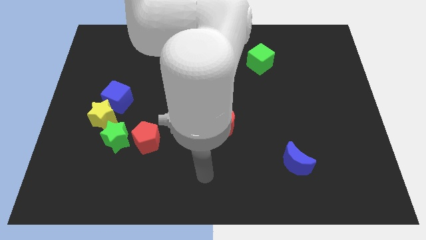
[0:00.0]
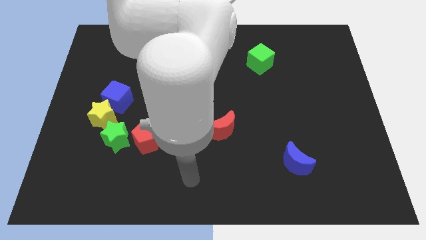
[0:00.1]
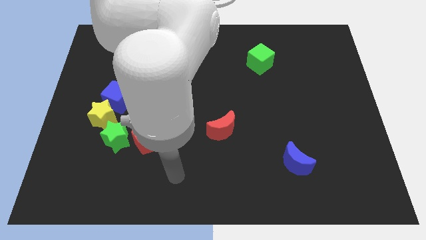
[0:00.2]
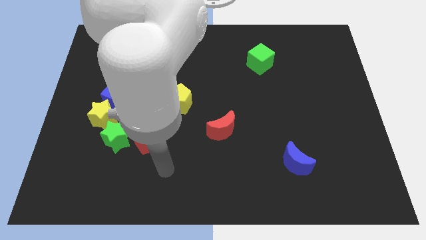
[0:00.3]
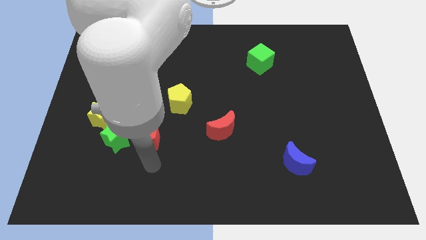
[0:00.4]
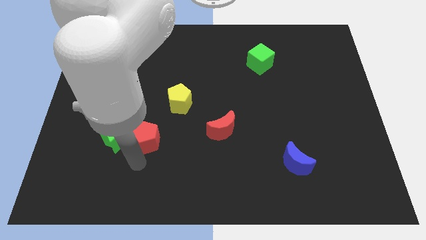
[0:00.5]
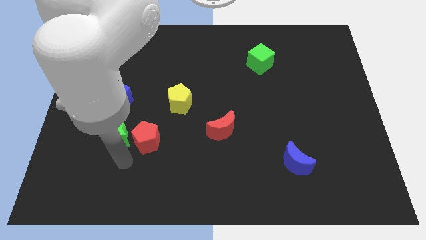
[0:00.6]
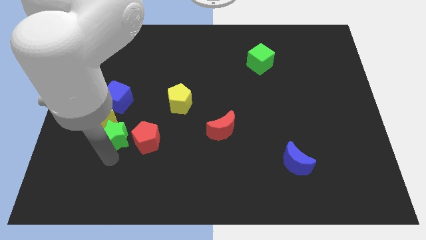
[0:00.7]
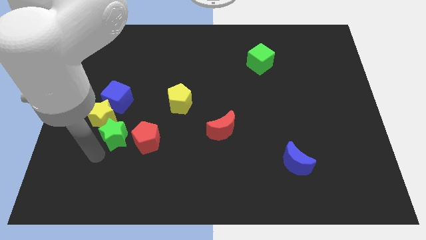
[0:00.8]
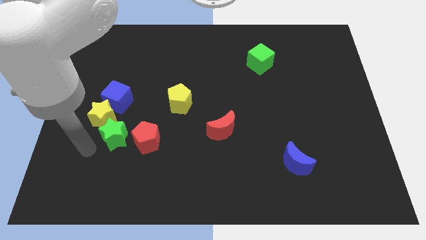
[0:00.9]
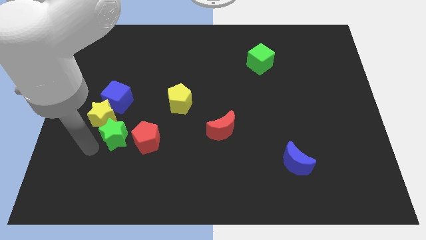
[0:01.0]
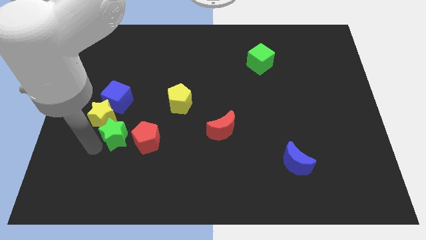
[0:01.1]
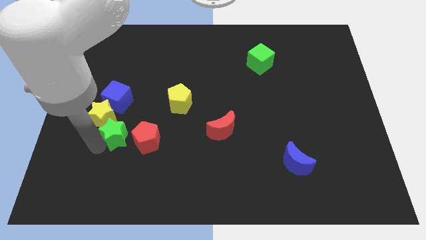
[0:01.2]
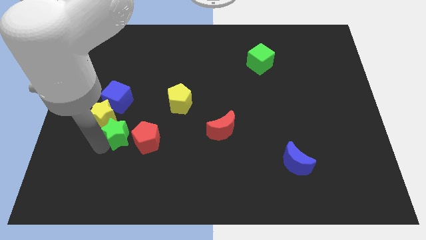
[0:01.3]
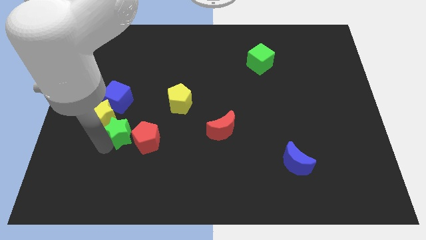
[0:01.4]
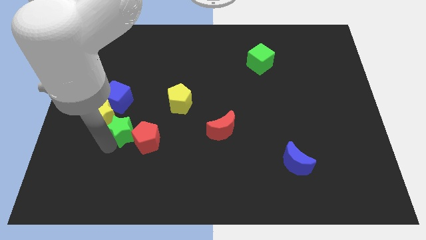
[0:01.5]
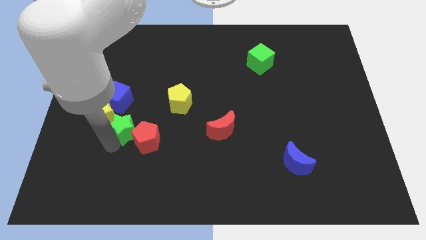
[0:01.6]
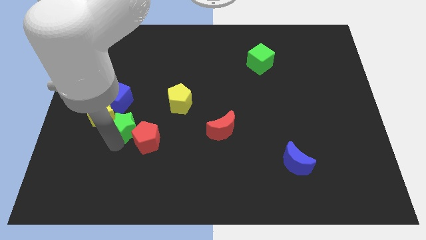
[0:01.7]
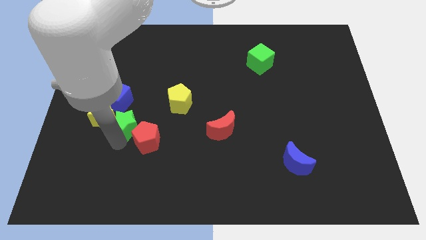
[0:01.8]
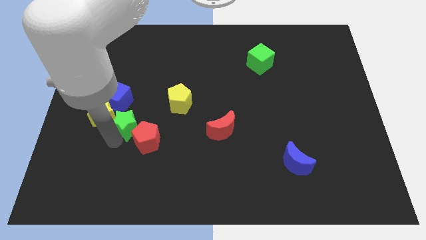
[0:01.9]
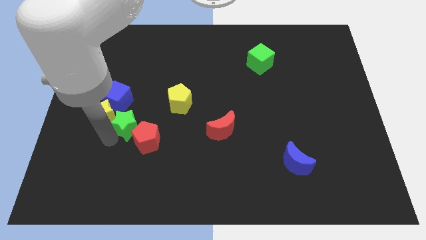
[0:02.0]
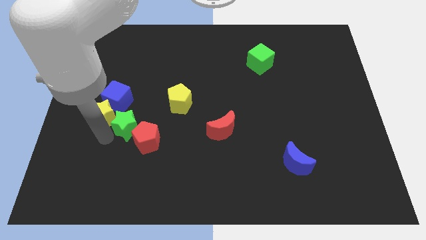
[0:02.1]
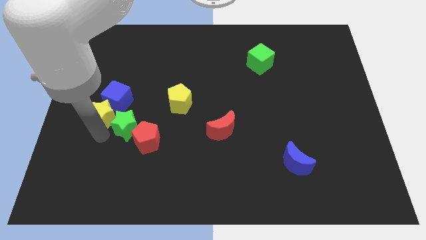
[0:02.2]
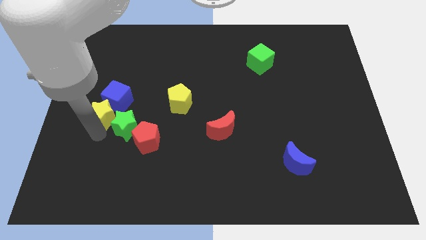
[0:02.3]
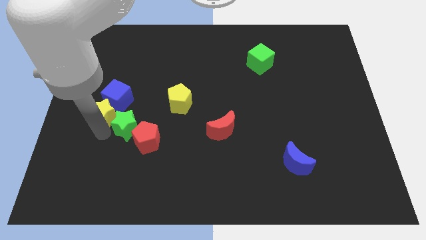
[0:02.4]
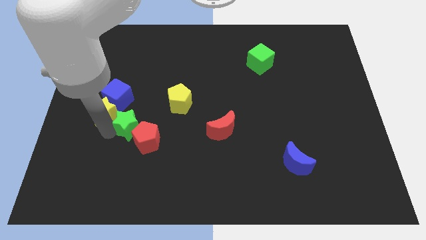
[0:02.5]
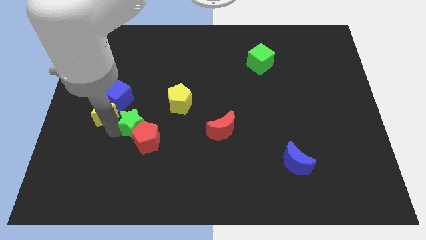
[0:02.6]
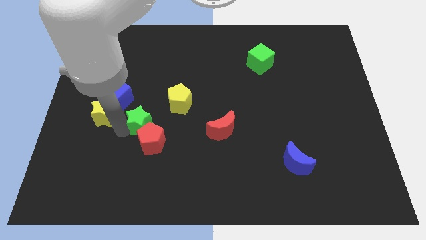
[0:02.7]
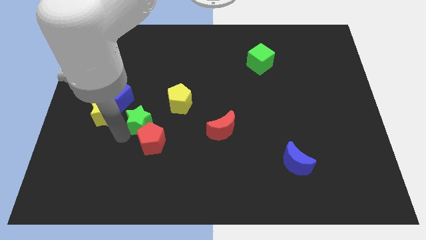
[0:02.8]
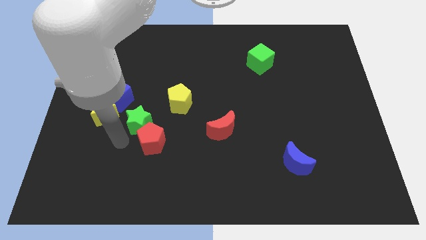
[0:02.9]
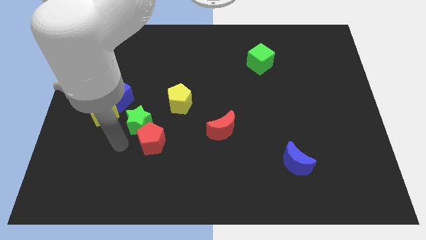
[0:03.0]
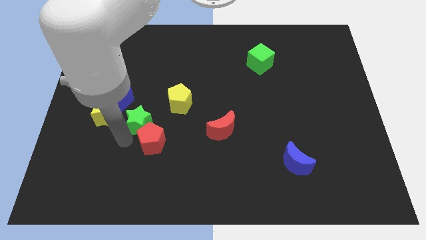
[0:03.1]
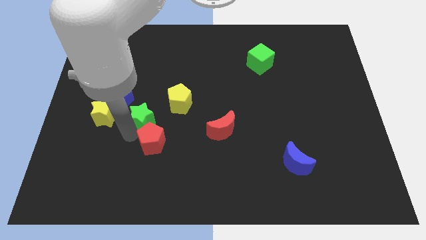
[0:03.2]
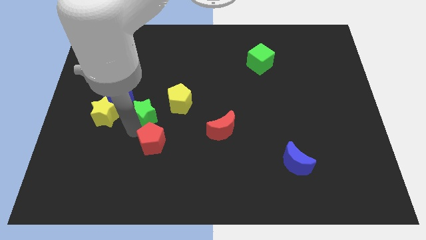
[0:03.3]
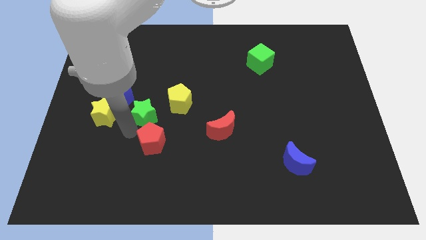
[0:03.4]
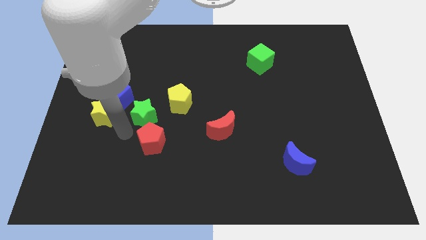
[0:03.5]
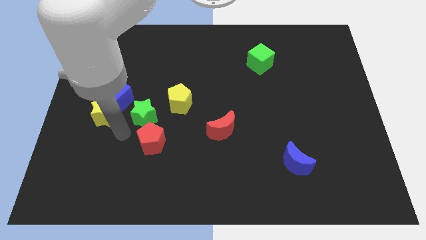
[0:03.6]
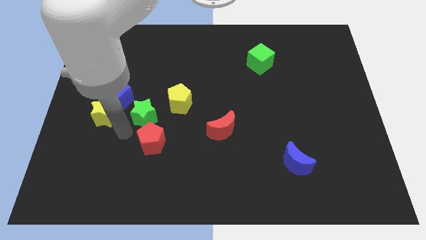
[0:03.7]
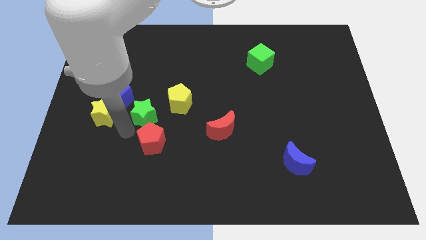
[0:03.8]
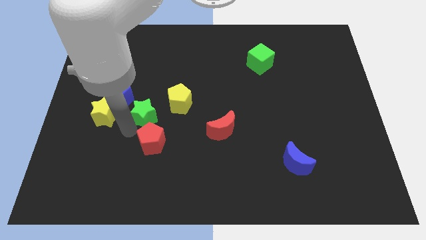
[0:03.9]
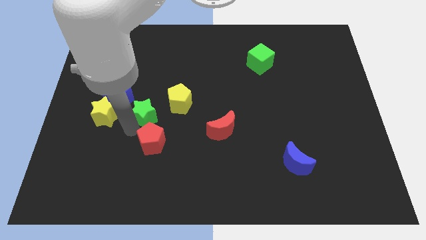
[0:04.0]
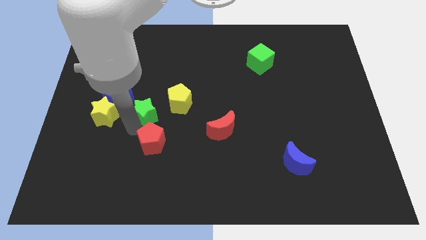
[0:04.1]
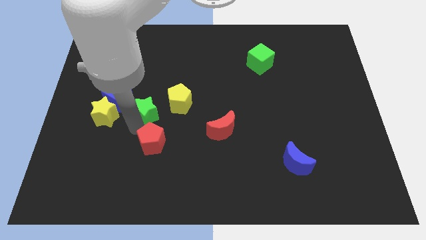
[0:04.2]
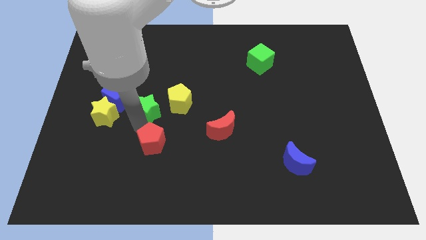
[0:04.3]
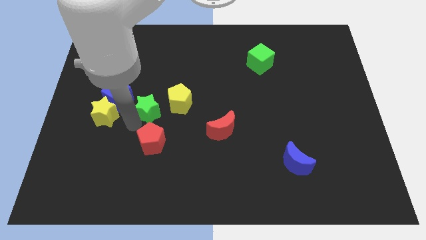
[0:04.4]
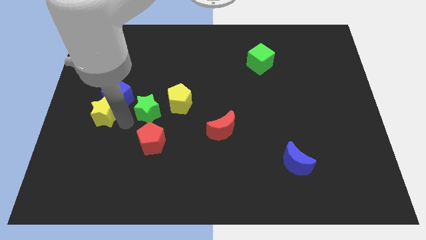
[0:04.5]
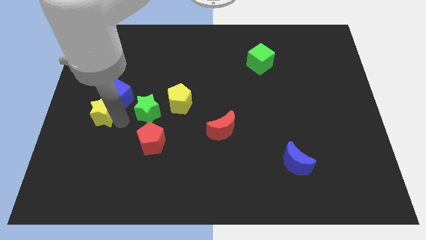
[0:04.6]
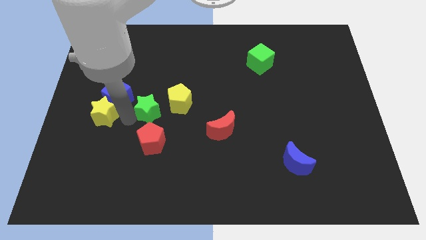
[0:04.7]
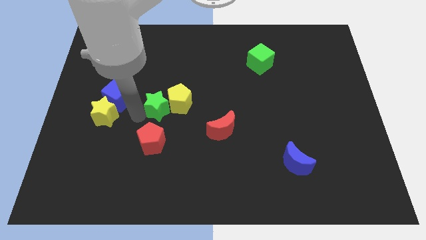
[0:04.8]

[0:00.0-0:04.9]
push the green star next to the yellow pentagon

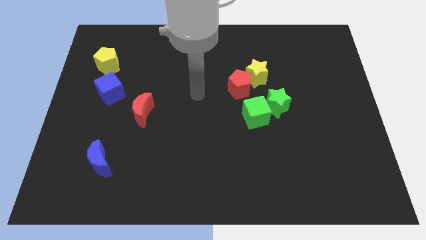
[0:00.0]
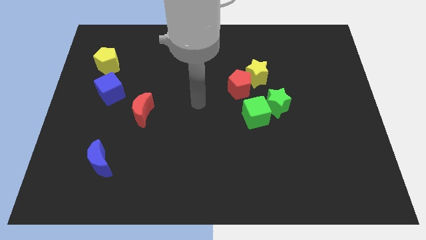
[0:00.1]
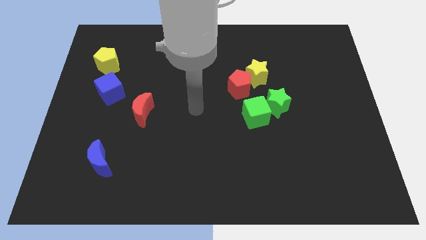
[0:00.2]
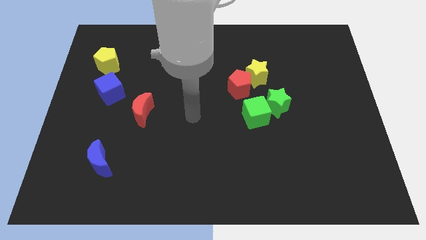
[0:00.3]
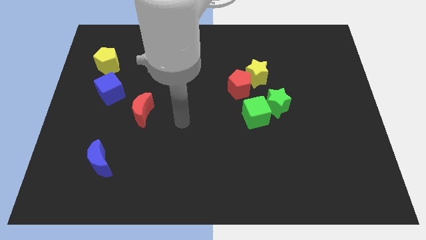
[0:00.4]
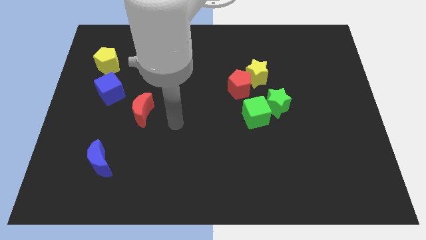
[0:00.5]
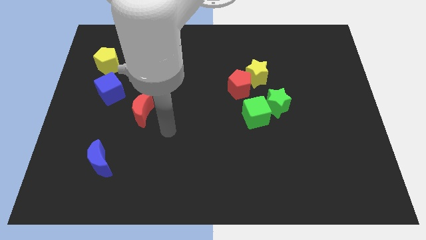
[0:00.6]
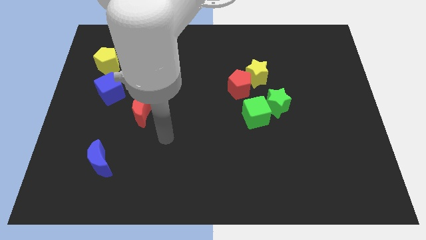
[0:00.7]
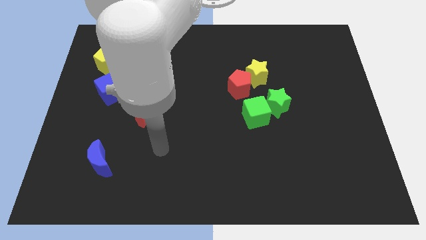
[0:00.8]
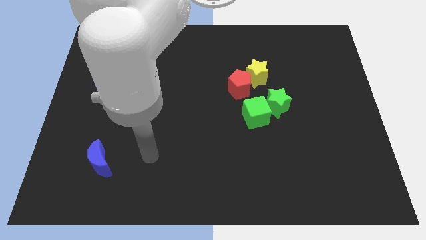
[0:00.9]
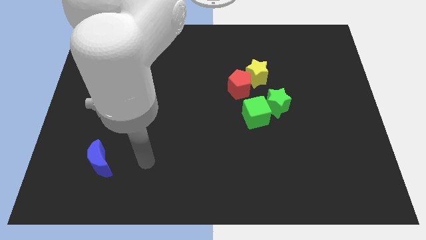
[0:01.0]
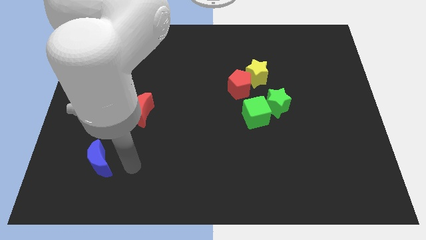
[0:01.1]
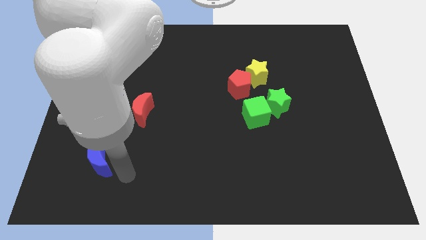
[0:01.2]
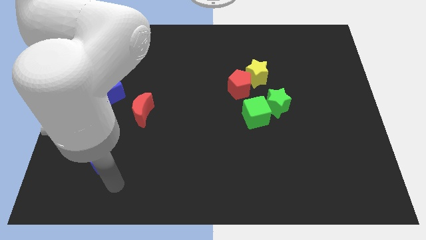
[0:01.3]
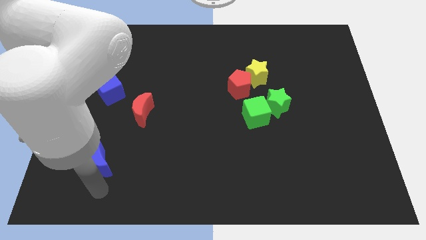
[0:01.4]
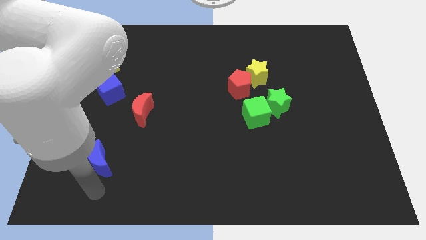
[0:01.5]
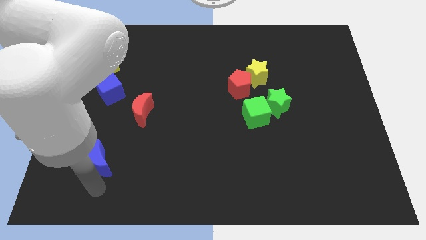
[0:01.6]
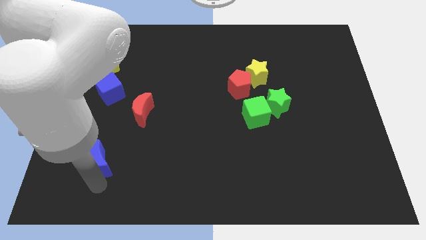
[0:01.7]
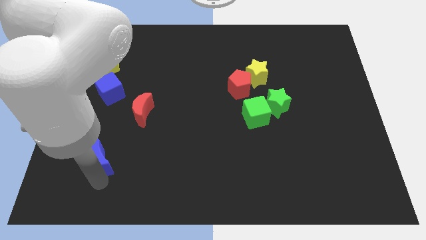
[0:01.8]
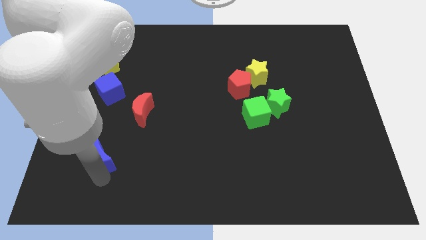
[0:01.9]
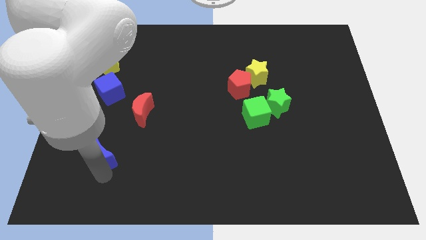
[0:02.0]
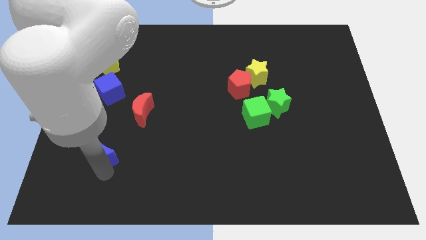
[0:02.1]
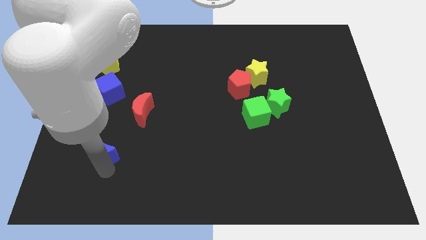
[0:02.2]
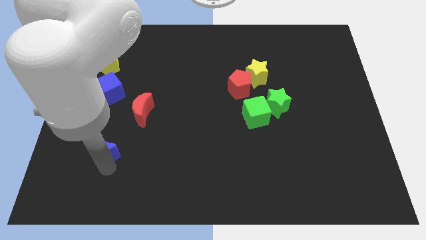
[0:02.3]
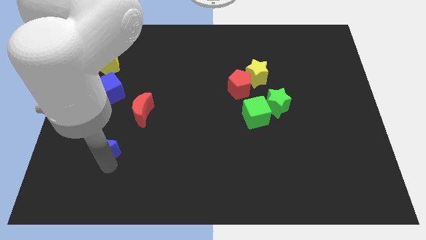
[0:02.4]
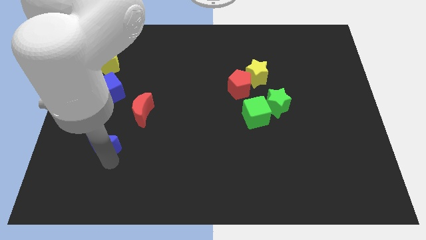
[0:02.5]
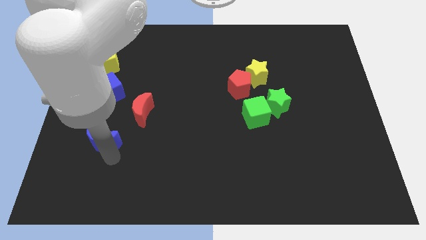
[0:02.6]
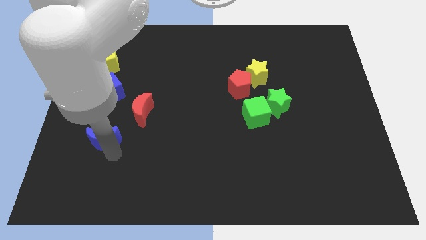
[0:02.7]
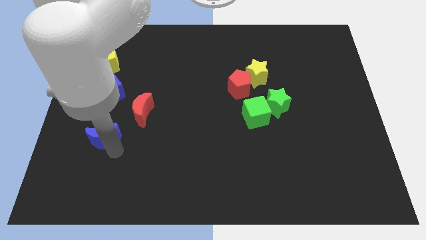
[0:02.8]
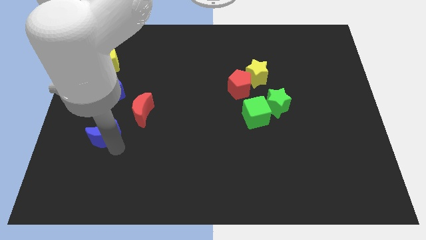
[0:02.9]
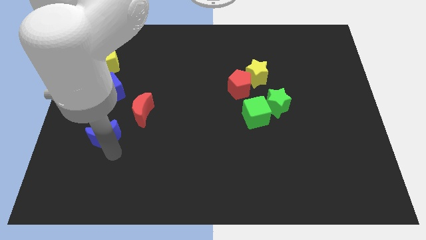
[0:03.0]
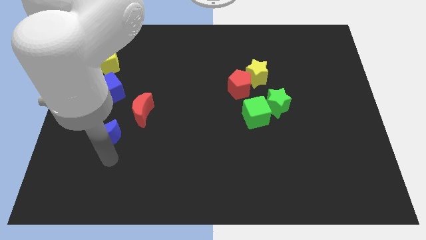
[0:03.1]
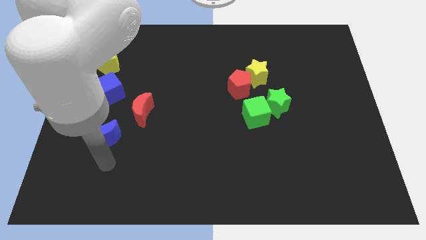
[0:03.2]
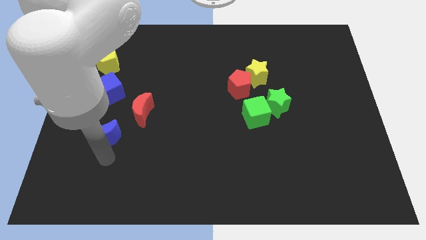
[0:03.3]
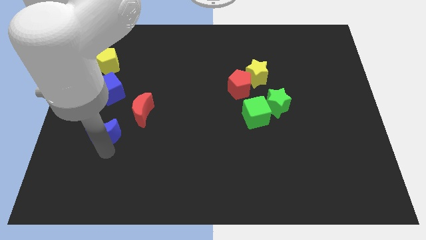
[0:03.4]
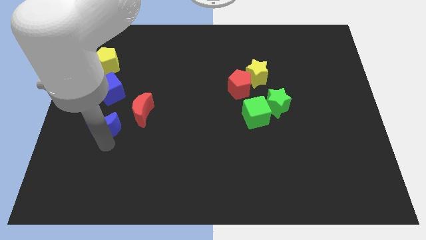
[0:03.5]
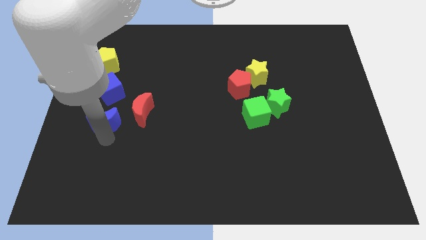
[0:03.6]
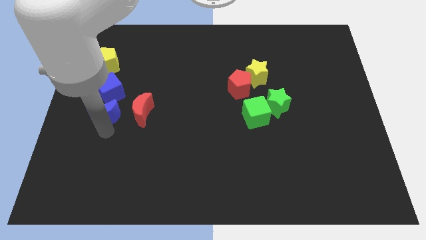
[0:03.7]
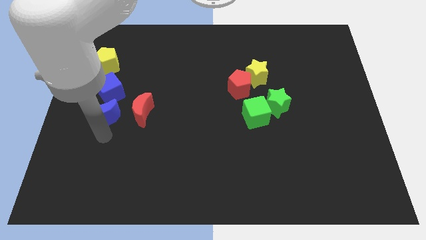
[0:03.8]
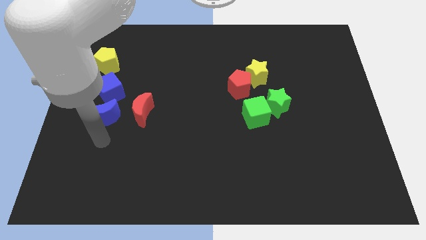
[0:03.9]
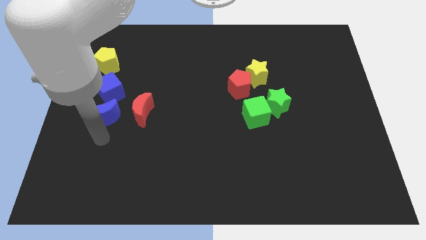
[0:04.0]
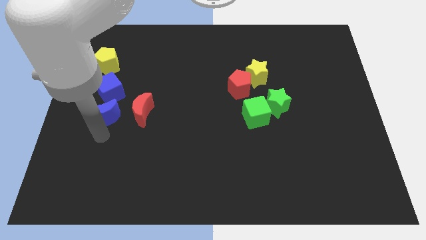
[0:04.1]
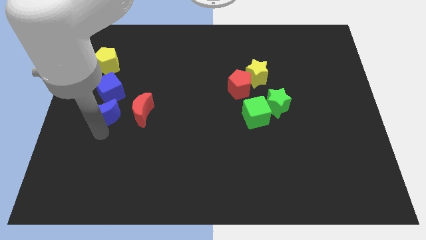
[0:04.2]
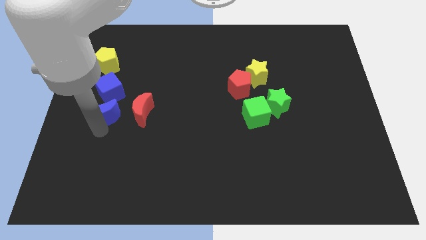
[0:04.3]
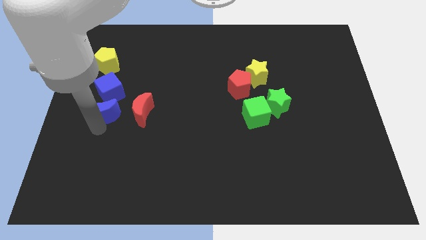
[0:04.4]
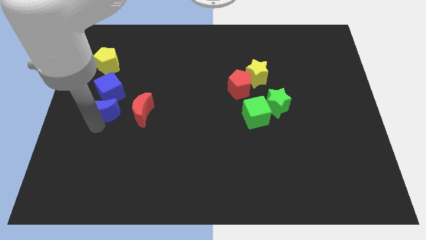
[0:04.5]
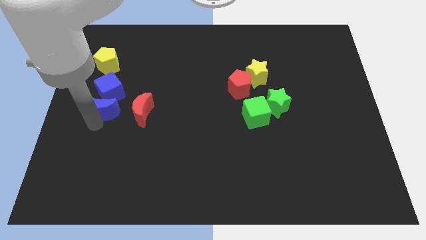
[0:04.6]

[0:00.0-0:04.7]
slide the blue moon to the blue cube
